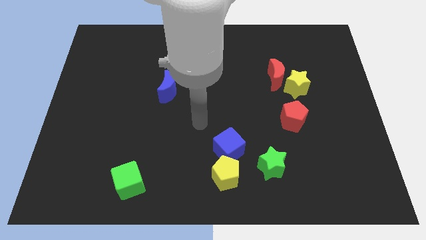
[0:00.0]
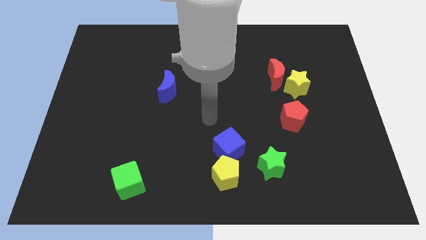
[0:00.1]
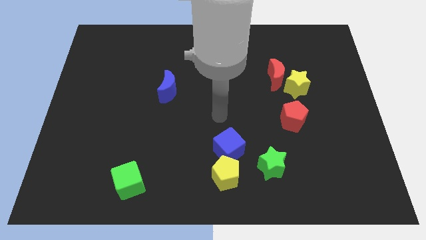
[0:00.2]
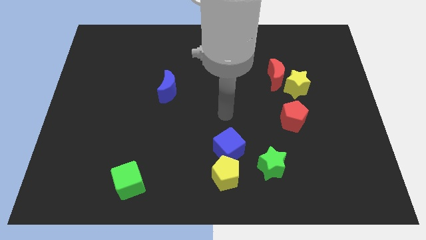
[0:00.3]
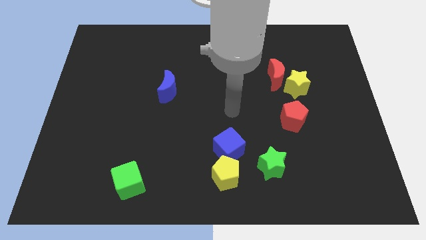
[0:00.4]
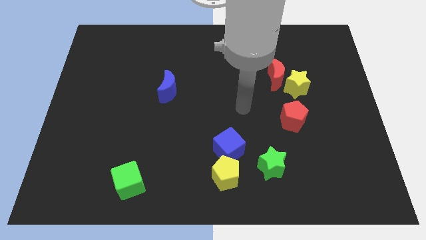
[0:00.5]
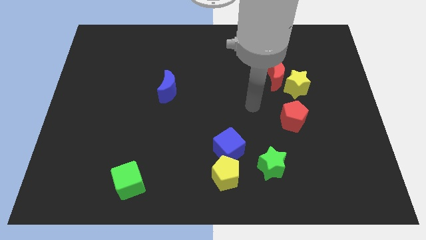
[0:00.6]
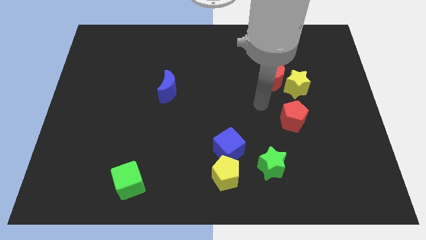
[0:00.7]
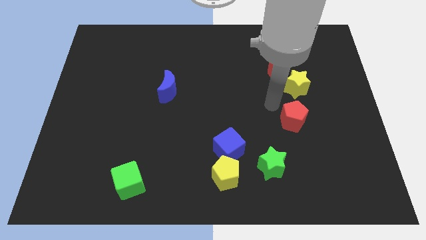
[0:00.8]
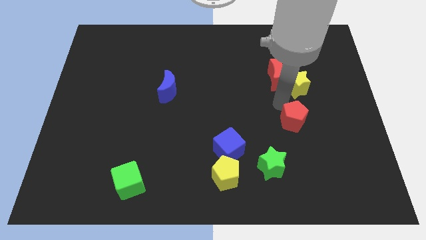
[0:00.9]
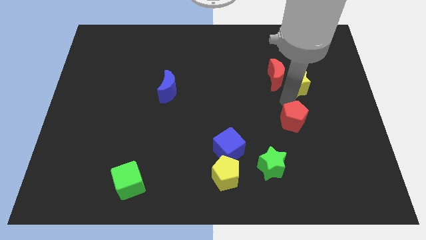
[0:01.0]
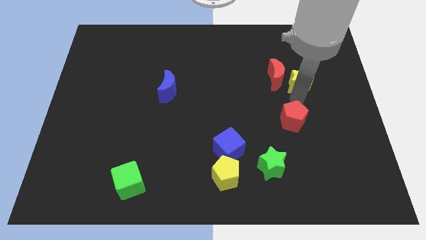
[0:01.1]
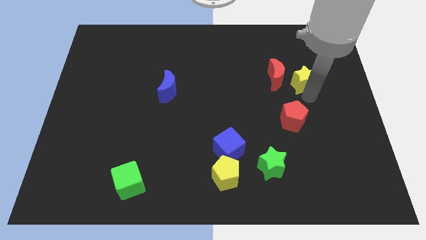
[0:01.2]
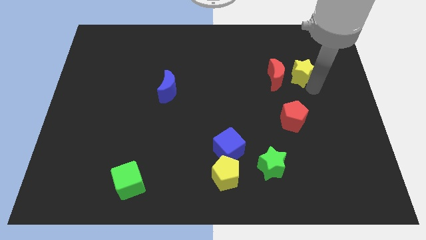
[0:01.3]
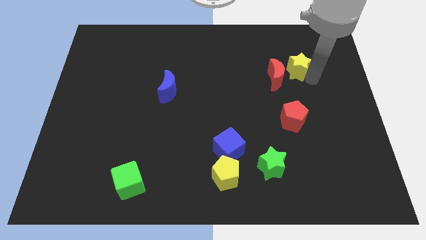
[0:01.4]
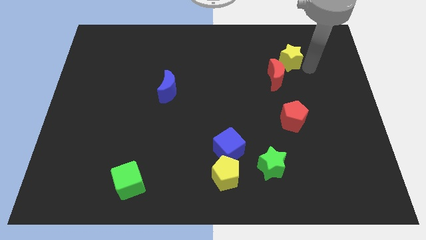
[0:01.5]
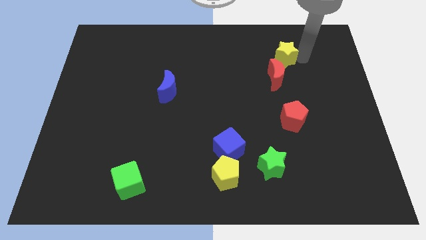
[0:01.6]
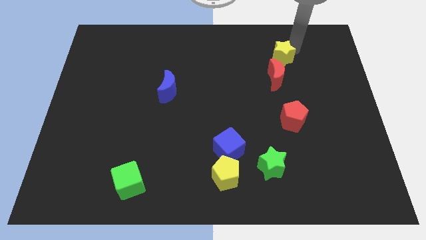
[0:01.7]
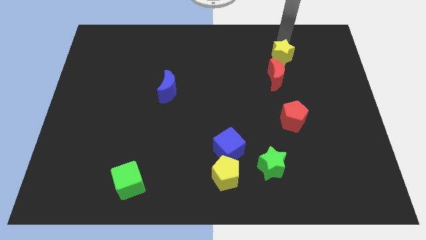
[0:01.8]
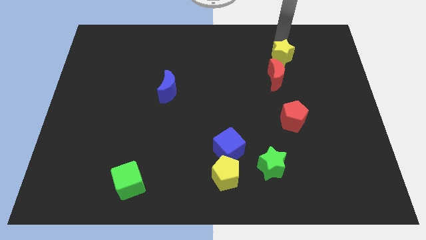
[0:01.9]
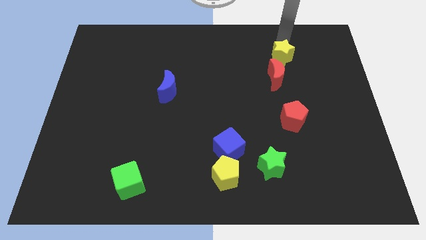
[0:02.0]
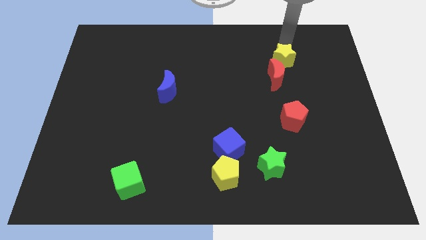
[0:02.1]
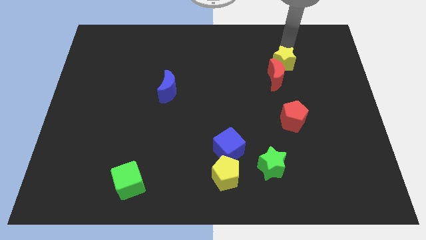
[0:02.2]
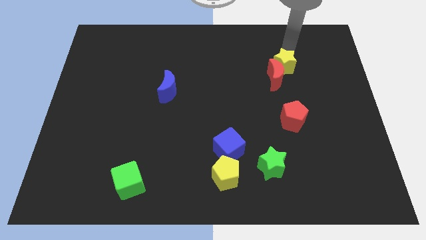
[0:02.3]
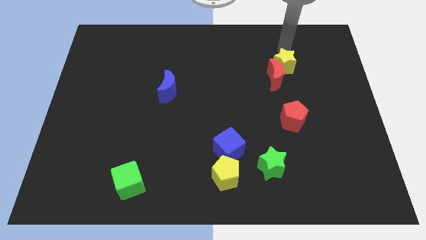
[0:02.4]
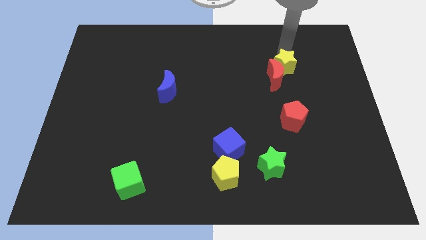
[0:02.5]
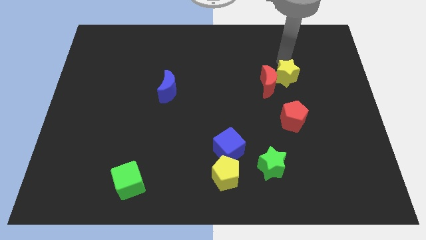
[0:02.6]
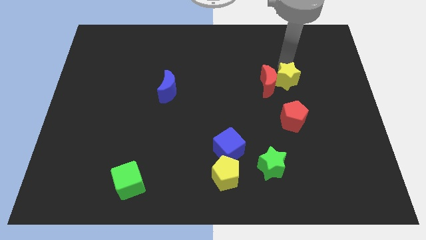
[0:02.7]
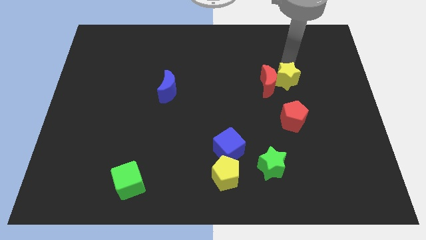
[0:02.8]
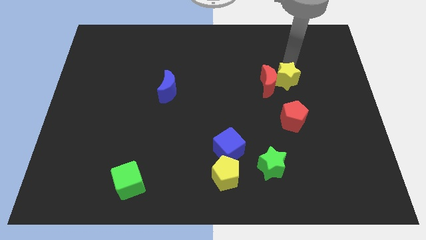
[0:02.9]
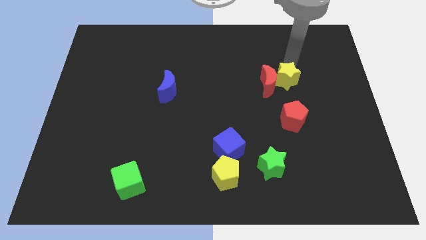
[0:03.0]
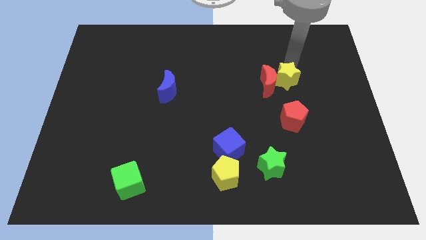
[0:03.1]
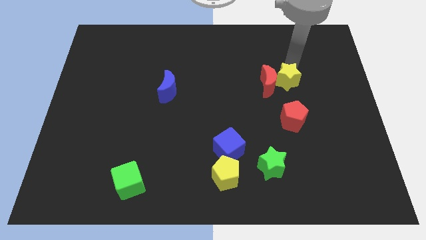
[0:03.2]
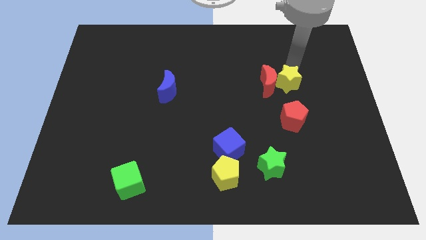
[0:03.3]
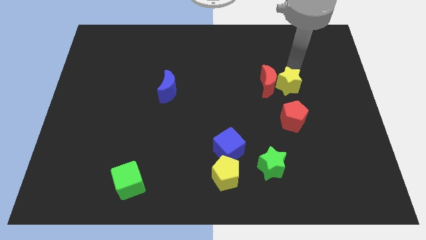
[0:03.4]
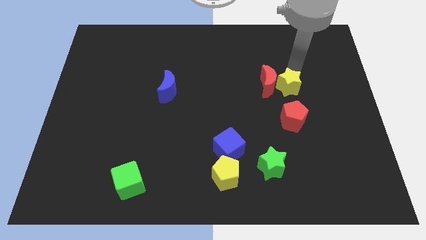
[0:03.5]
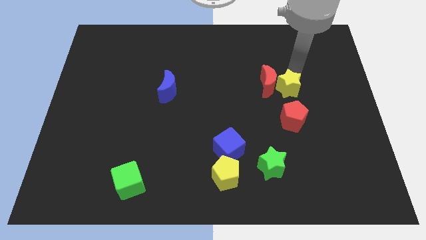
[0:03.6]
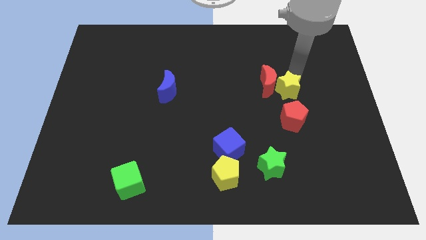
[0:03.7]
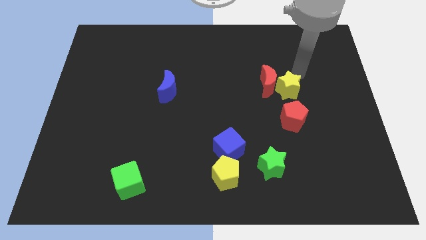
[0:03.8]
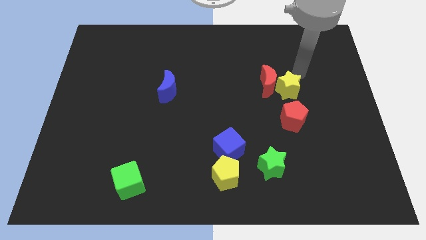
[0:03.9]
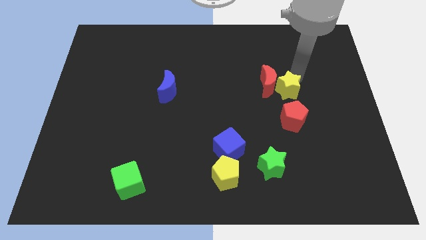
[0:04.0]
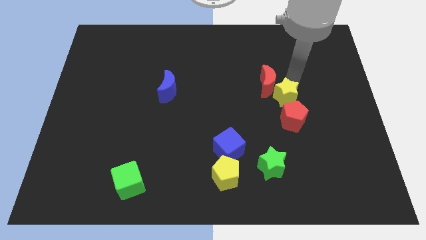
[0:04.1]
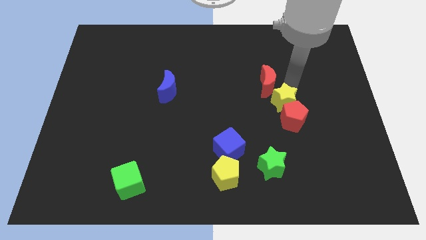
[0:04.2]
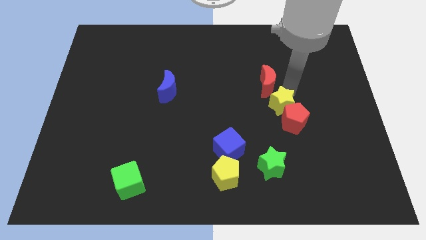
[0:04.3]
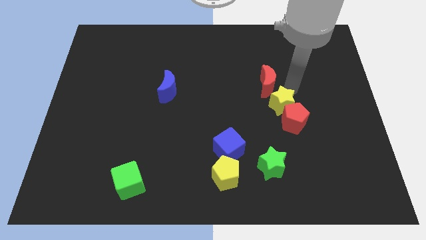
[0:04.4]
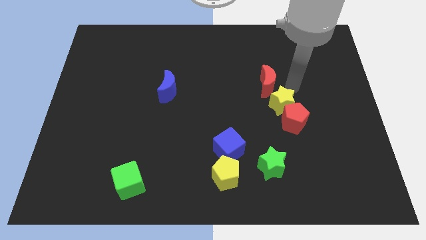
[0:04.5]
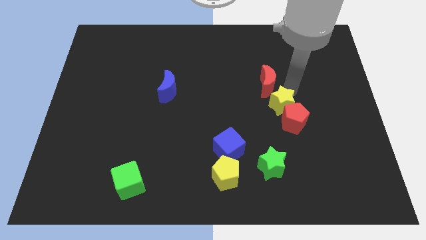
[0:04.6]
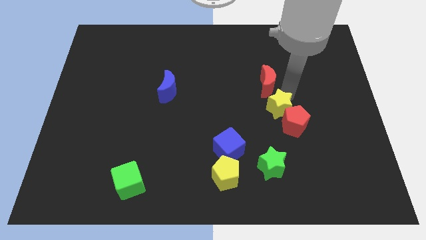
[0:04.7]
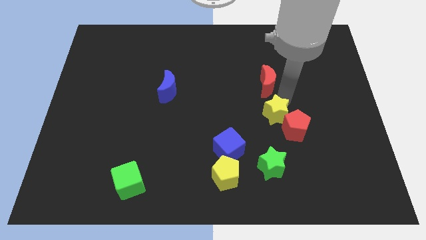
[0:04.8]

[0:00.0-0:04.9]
put the yellow star to the top of the green star

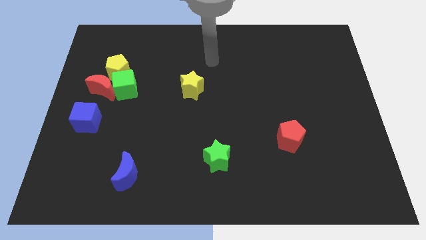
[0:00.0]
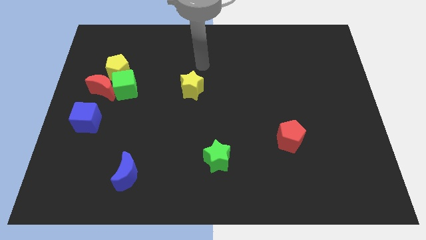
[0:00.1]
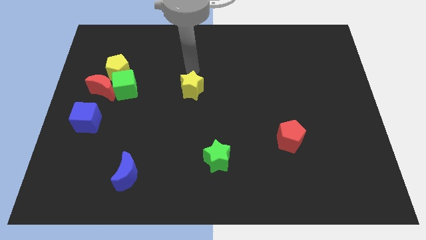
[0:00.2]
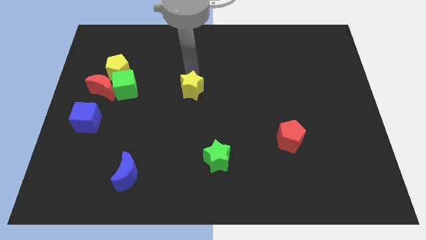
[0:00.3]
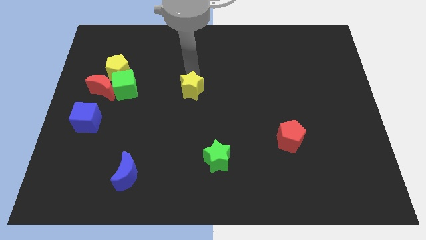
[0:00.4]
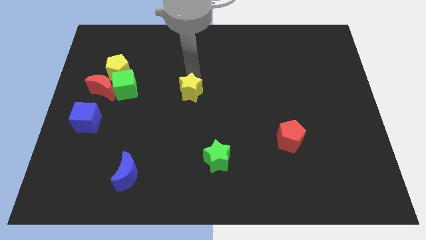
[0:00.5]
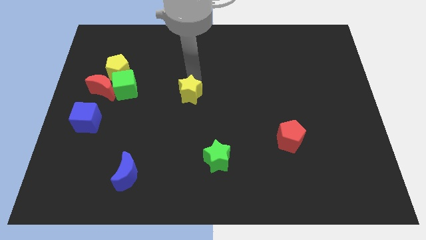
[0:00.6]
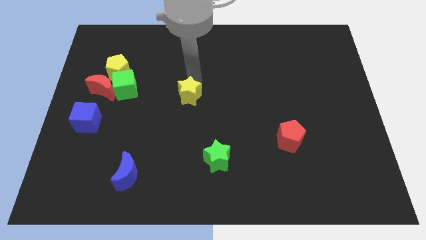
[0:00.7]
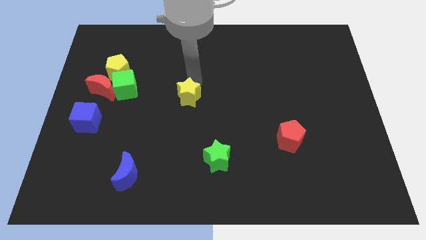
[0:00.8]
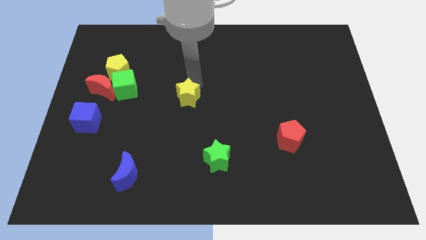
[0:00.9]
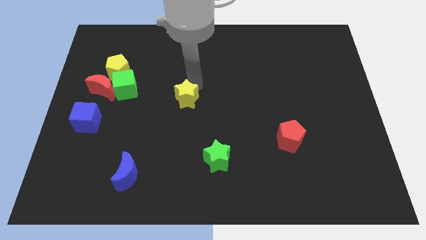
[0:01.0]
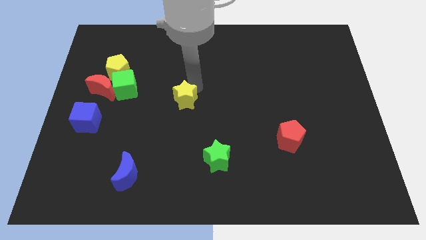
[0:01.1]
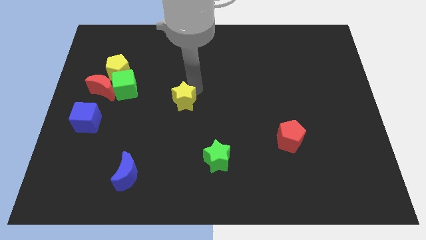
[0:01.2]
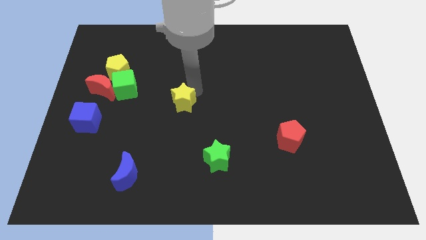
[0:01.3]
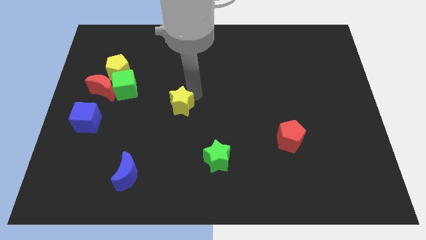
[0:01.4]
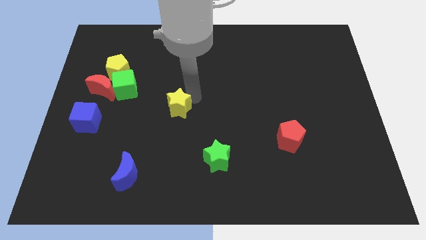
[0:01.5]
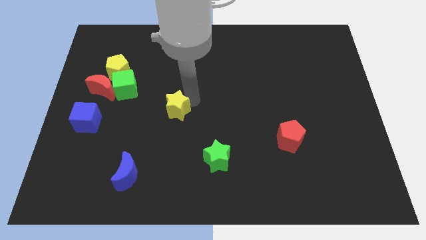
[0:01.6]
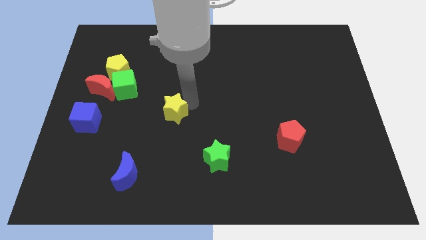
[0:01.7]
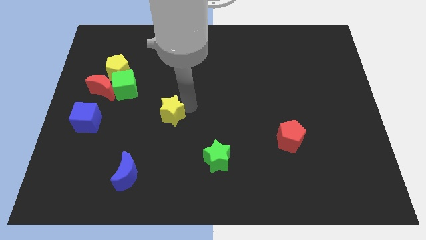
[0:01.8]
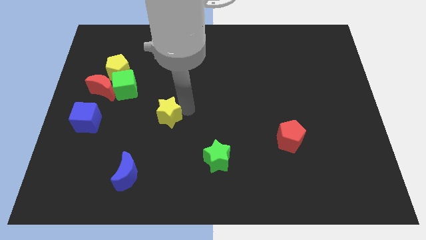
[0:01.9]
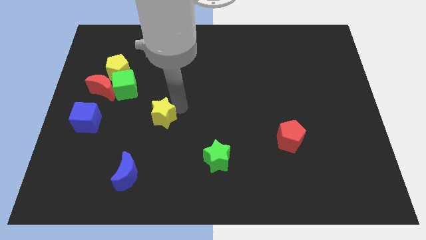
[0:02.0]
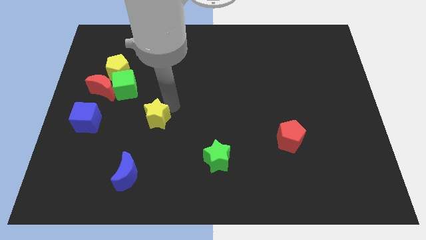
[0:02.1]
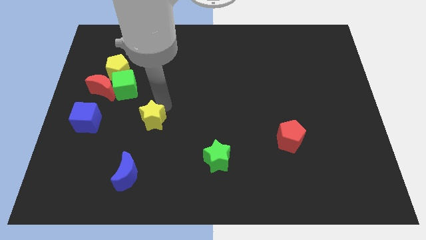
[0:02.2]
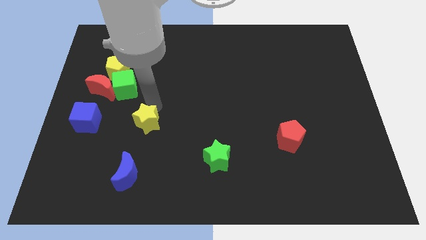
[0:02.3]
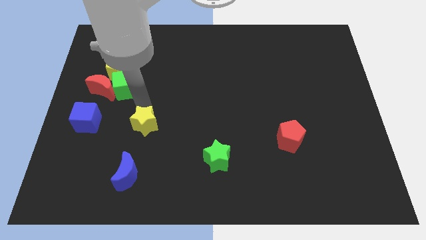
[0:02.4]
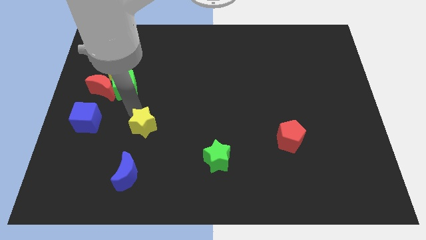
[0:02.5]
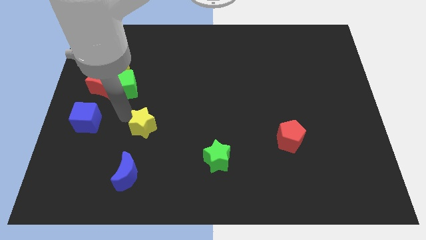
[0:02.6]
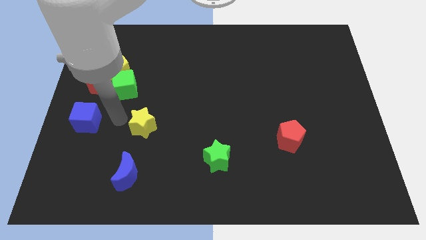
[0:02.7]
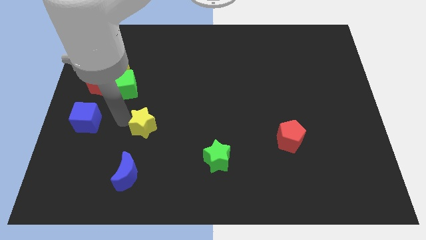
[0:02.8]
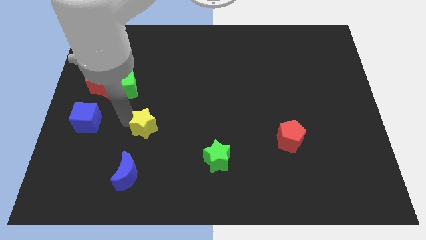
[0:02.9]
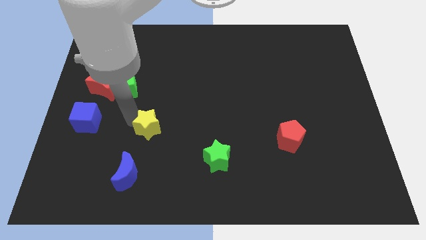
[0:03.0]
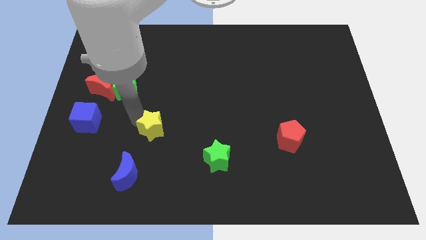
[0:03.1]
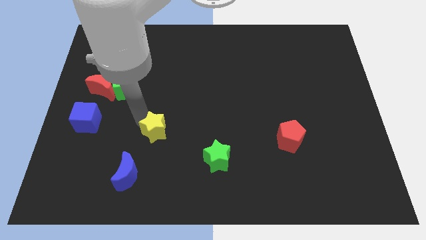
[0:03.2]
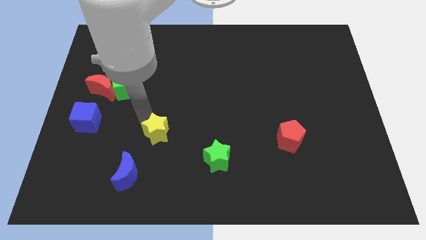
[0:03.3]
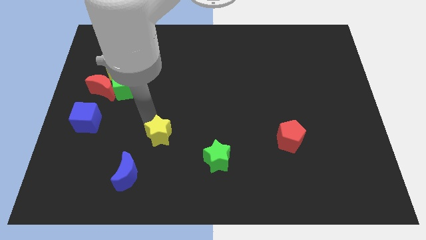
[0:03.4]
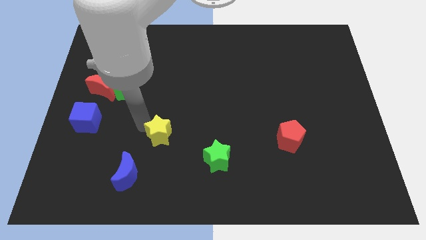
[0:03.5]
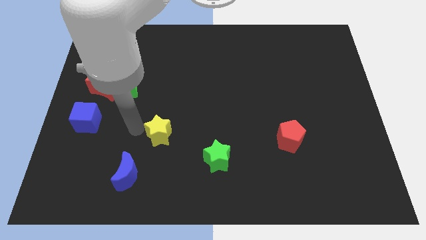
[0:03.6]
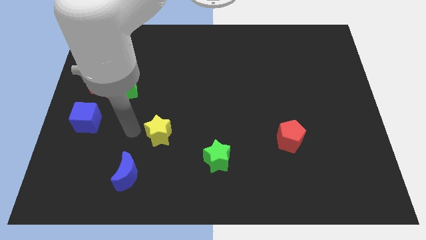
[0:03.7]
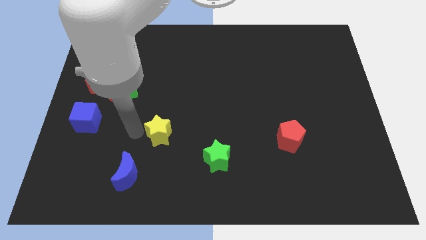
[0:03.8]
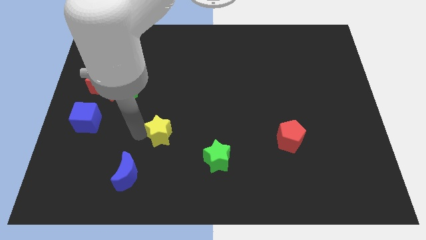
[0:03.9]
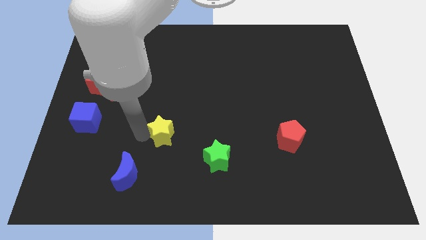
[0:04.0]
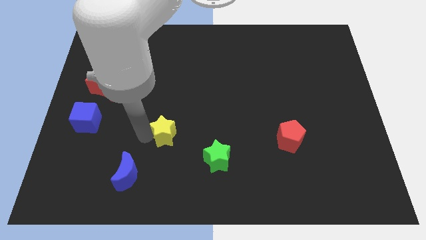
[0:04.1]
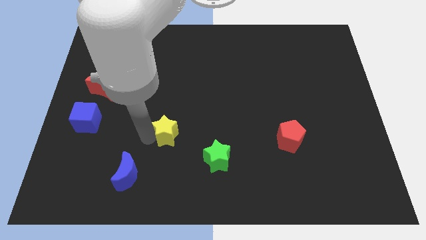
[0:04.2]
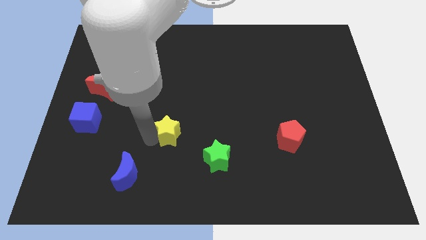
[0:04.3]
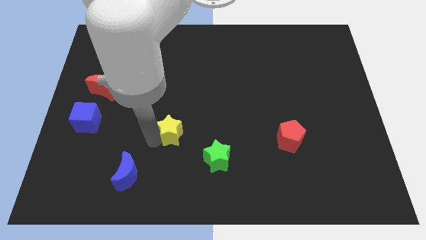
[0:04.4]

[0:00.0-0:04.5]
push the yellow star diagonally up and to the left of the green star
